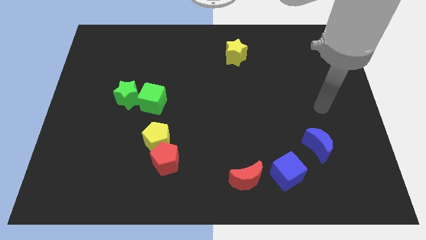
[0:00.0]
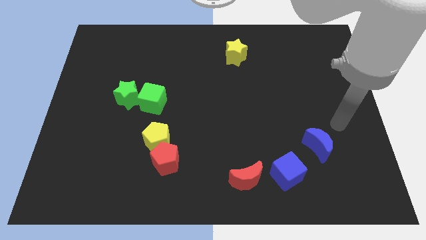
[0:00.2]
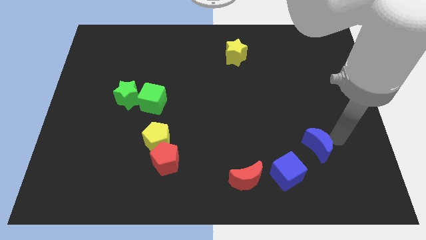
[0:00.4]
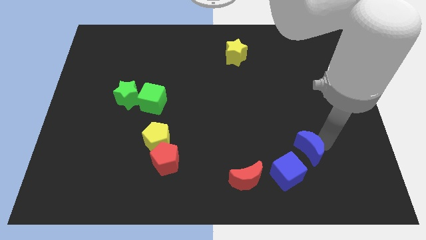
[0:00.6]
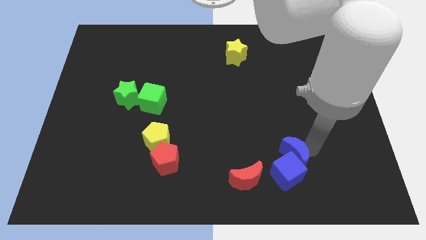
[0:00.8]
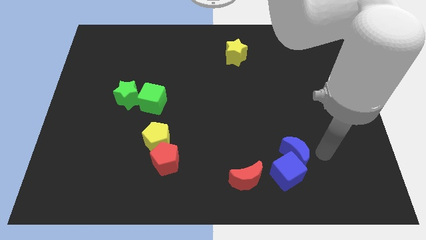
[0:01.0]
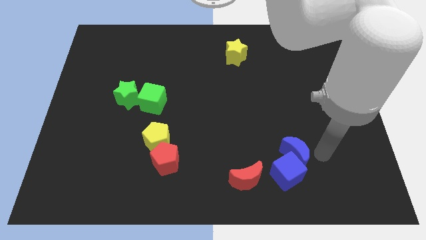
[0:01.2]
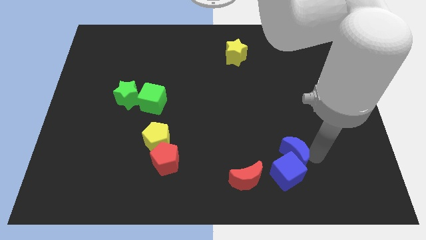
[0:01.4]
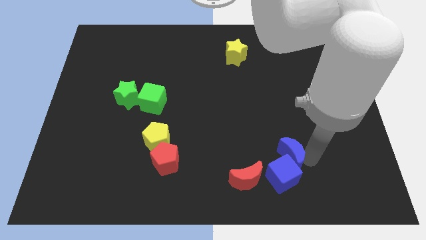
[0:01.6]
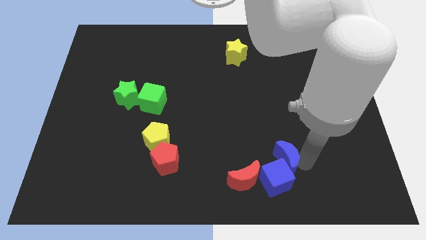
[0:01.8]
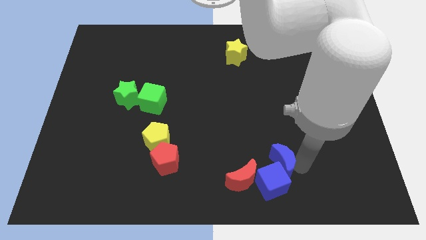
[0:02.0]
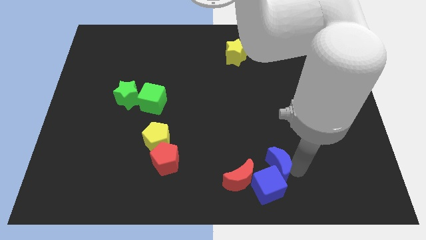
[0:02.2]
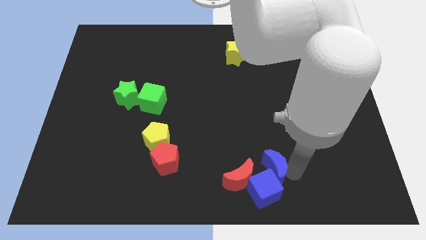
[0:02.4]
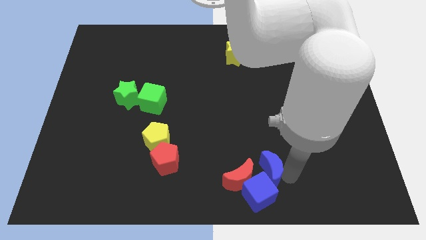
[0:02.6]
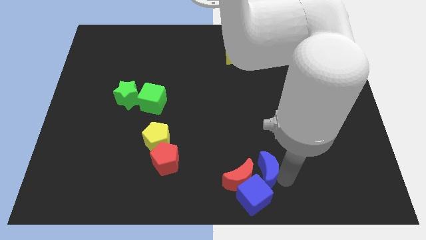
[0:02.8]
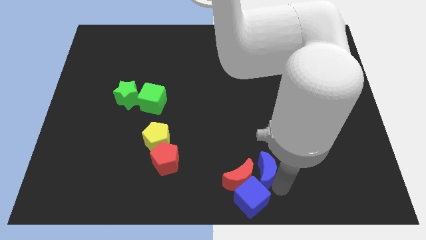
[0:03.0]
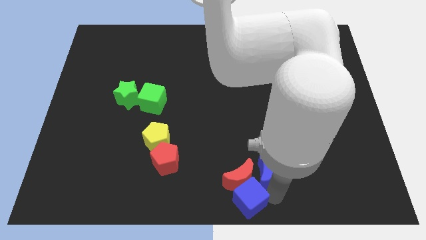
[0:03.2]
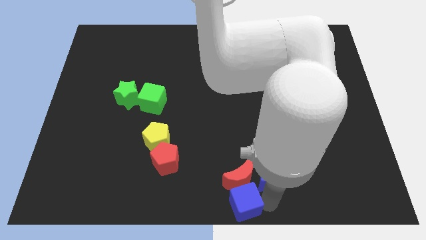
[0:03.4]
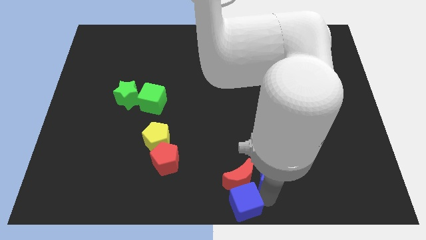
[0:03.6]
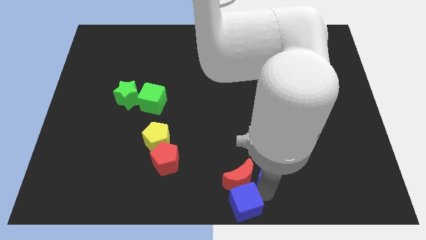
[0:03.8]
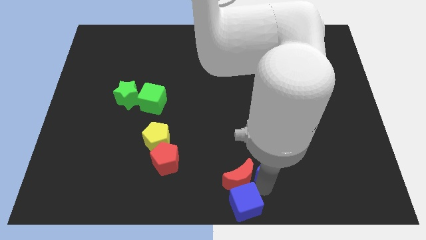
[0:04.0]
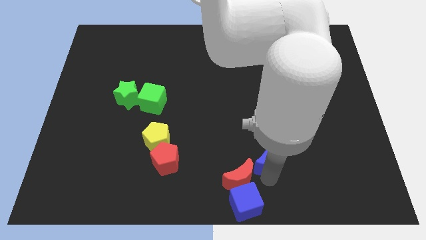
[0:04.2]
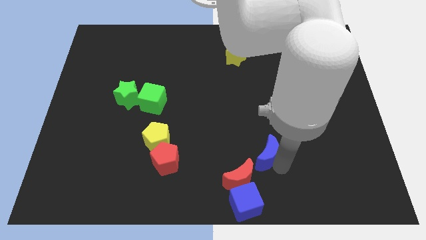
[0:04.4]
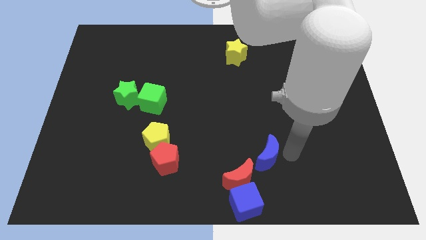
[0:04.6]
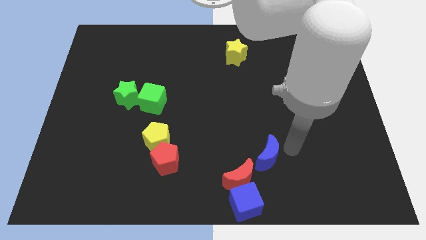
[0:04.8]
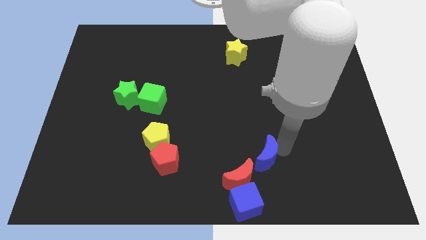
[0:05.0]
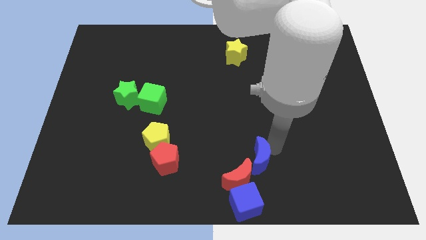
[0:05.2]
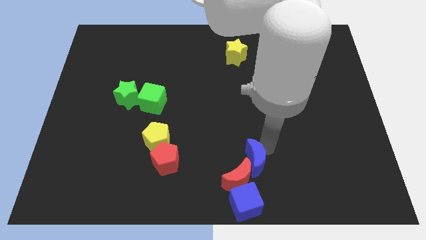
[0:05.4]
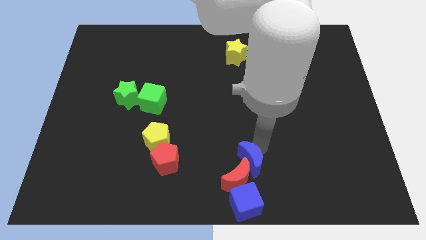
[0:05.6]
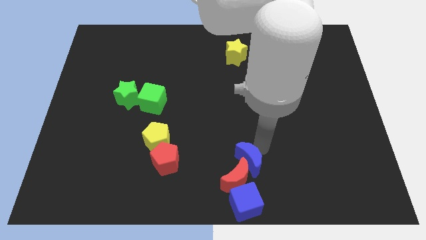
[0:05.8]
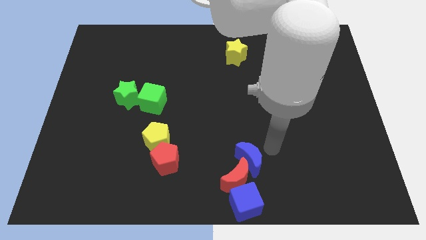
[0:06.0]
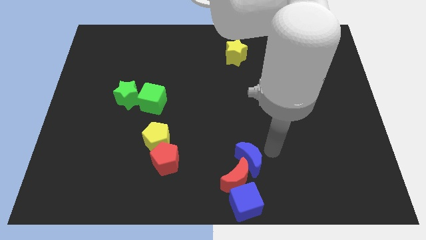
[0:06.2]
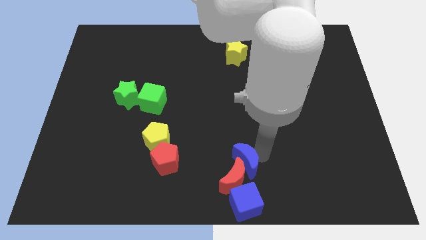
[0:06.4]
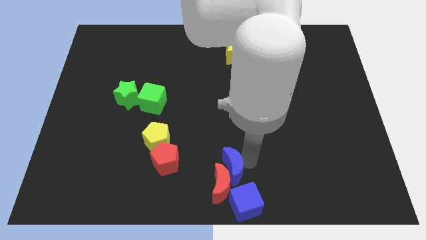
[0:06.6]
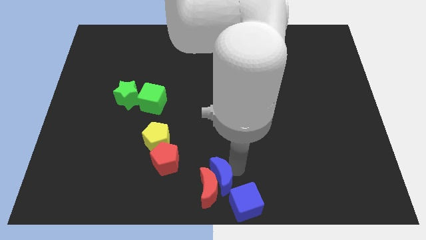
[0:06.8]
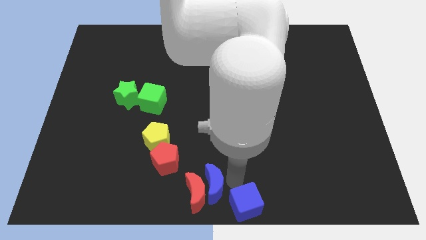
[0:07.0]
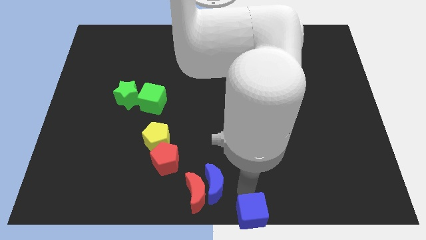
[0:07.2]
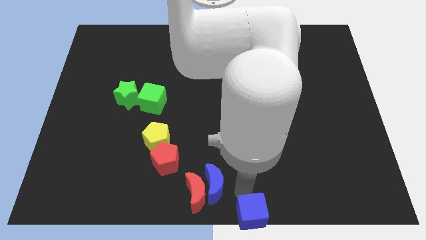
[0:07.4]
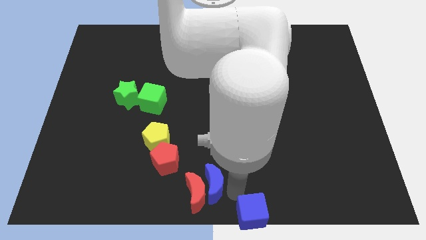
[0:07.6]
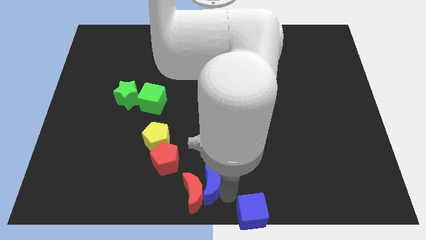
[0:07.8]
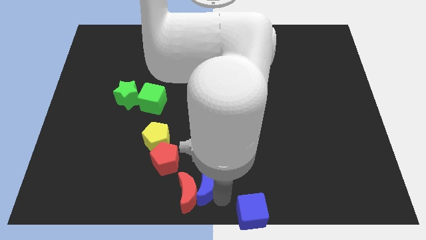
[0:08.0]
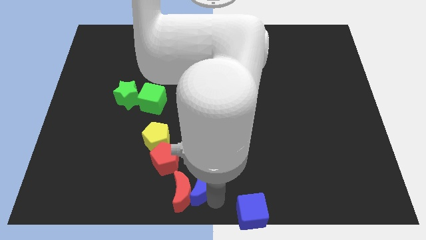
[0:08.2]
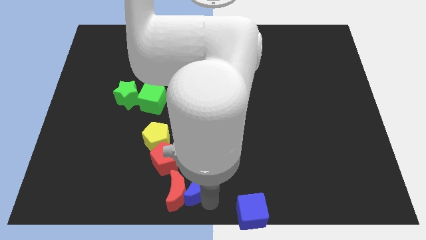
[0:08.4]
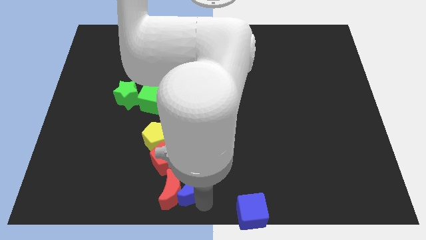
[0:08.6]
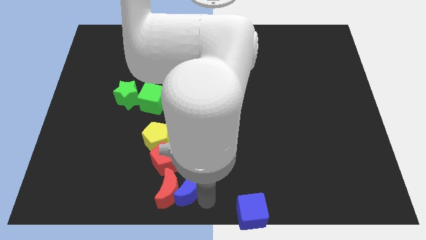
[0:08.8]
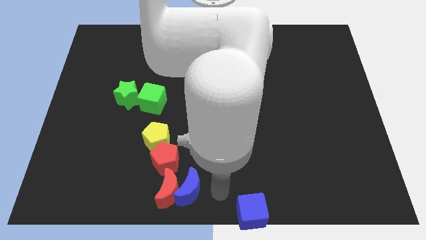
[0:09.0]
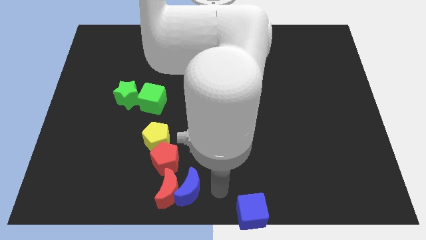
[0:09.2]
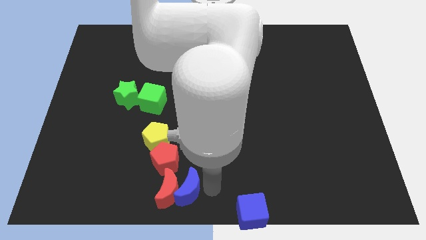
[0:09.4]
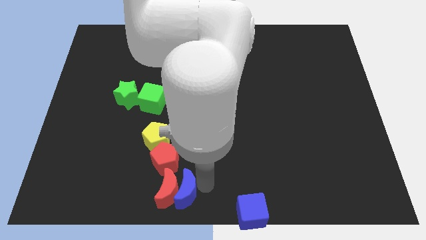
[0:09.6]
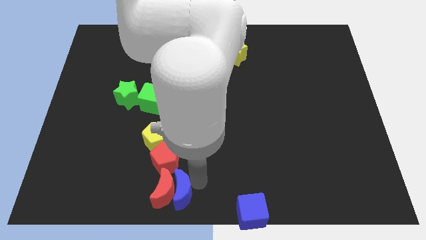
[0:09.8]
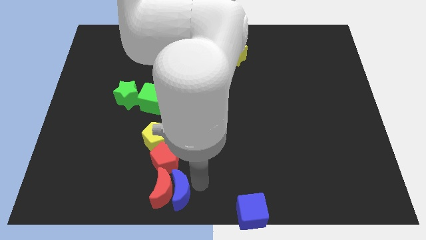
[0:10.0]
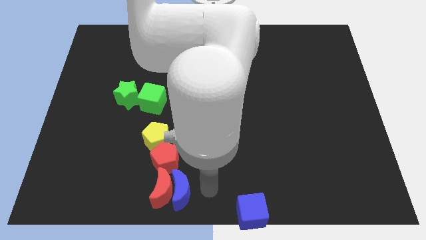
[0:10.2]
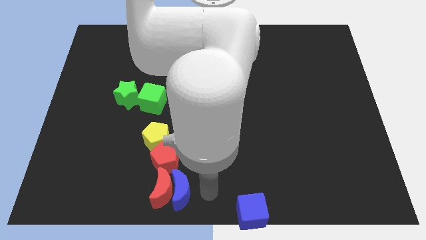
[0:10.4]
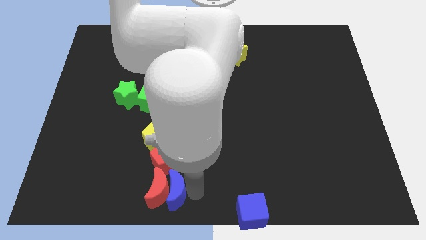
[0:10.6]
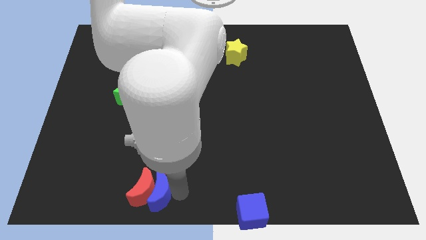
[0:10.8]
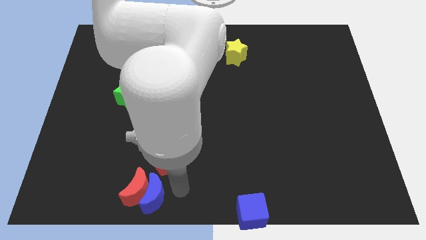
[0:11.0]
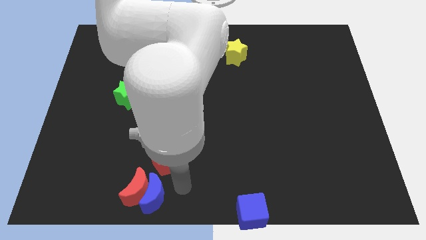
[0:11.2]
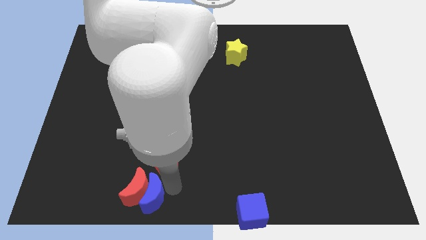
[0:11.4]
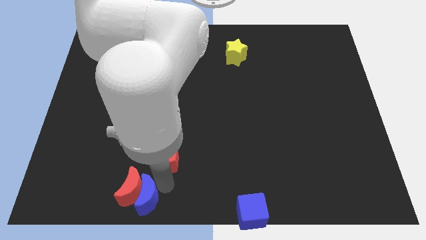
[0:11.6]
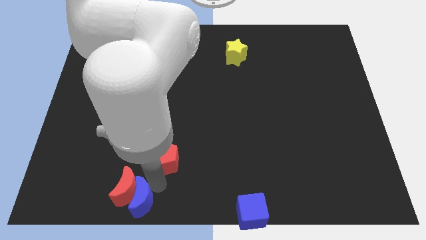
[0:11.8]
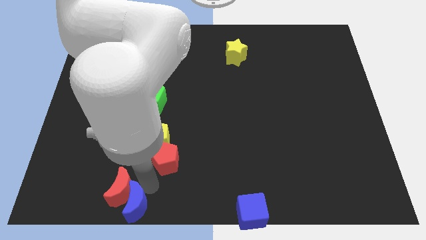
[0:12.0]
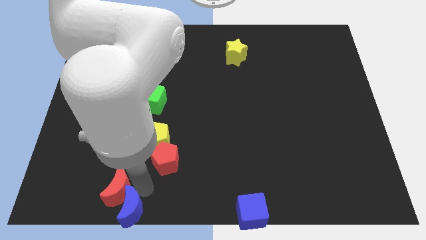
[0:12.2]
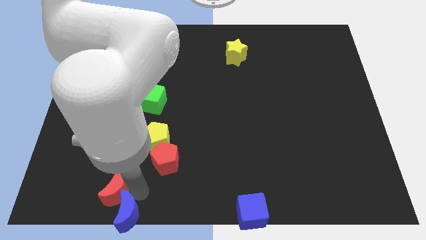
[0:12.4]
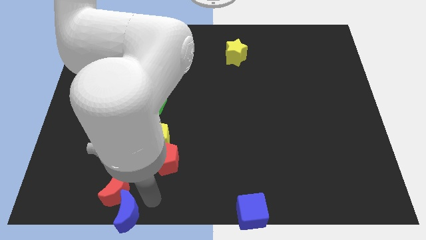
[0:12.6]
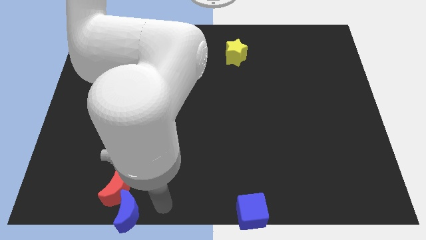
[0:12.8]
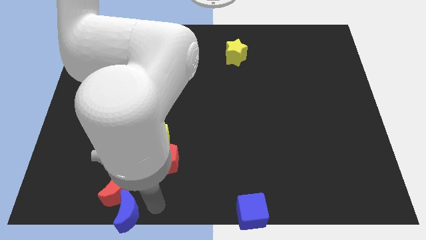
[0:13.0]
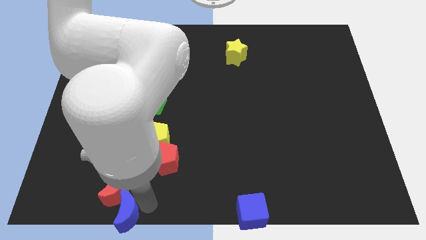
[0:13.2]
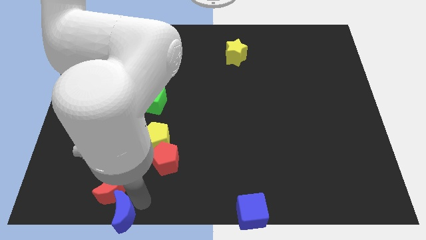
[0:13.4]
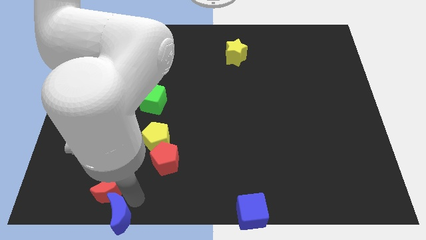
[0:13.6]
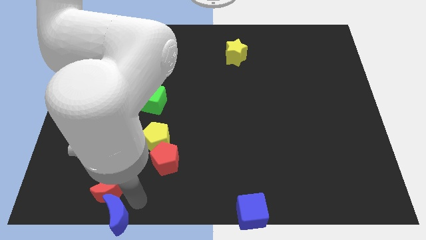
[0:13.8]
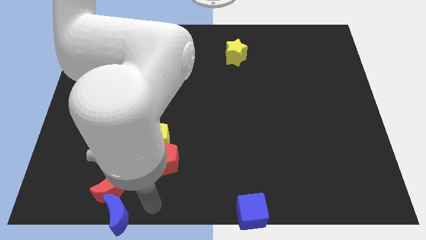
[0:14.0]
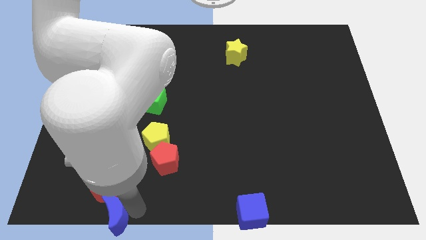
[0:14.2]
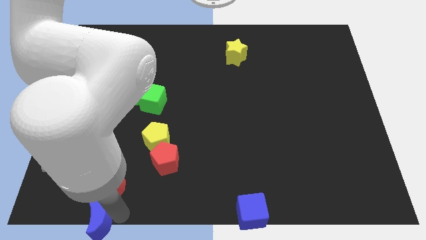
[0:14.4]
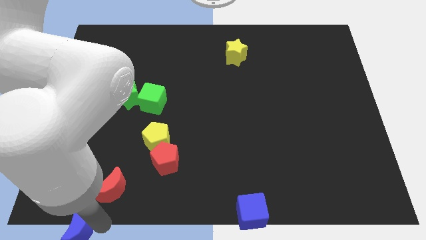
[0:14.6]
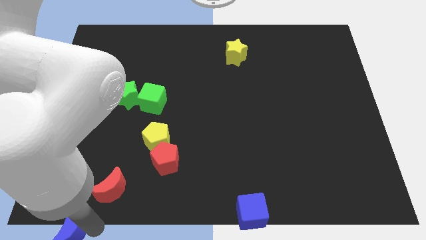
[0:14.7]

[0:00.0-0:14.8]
put the blue moon to the lower left corner
